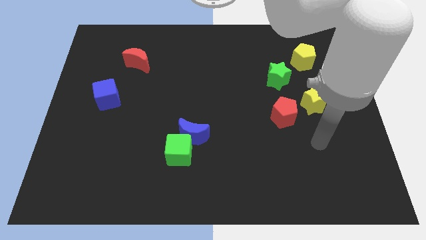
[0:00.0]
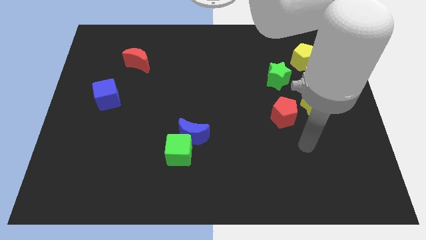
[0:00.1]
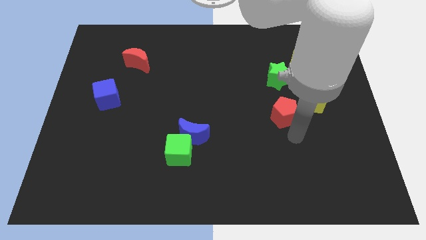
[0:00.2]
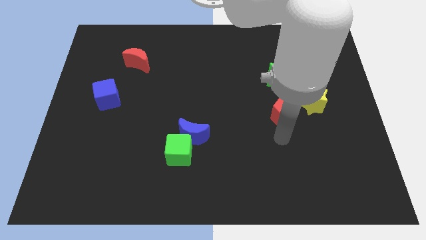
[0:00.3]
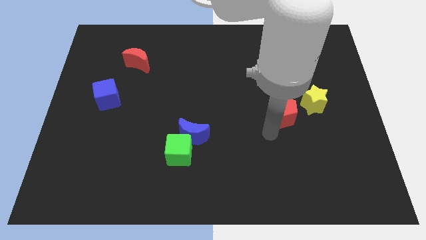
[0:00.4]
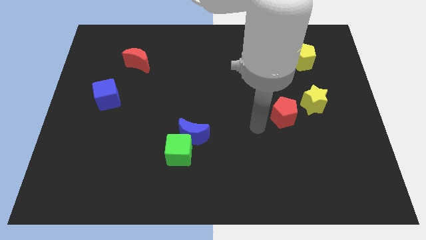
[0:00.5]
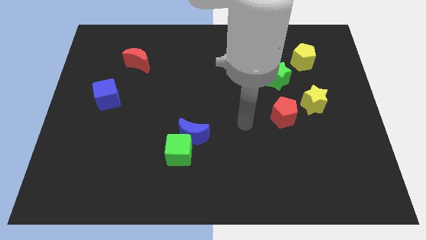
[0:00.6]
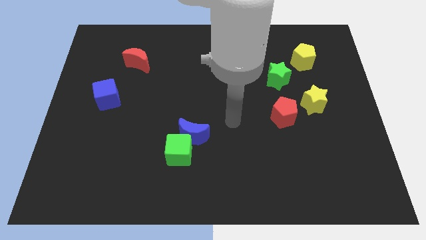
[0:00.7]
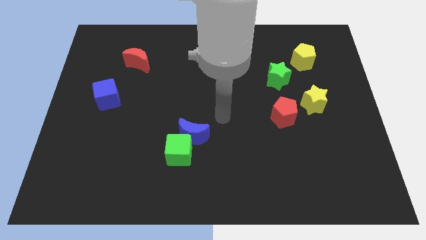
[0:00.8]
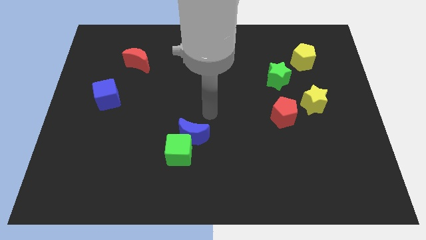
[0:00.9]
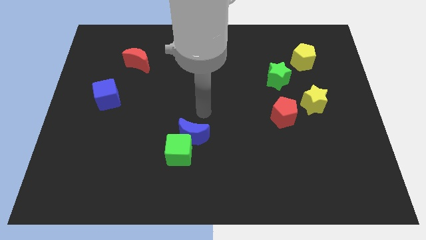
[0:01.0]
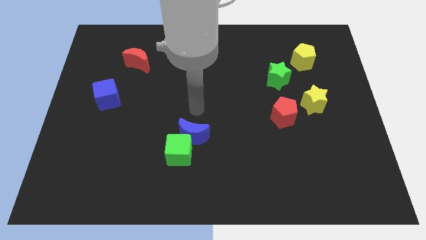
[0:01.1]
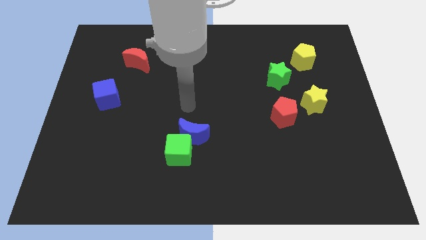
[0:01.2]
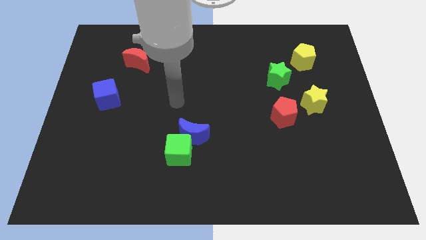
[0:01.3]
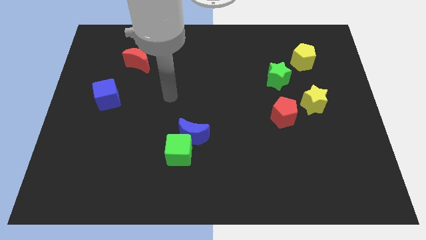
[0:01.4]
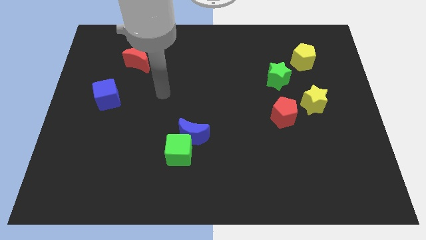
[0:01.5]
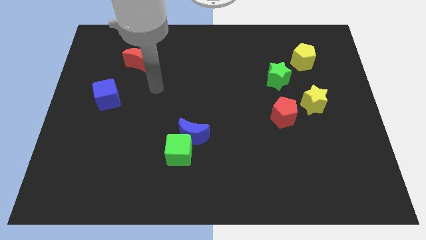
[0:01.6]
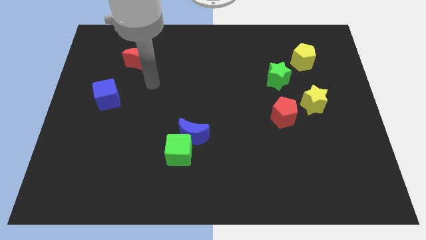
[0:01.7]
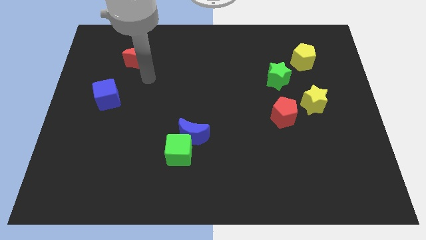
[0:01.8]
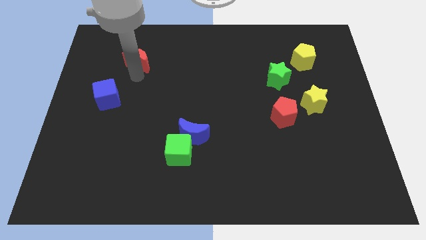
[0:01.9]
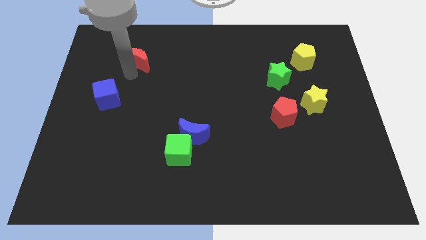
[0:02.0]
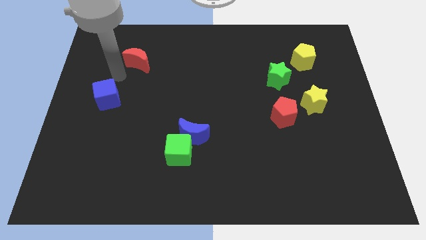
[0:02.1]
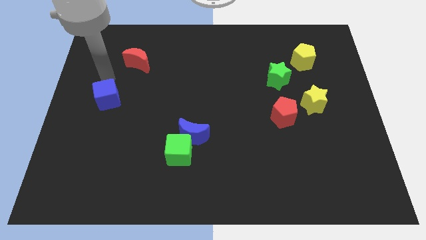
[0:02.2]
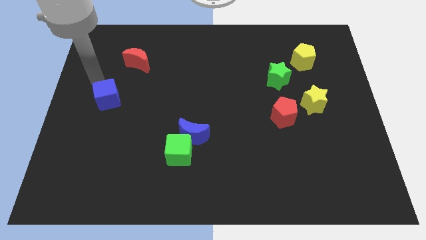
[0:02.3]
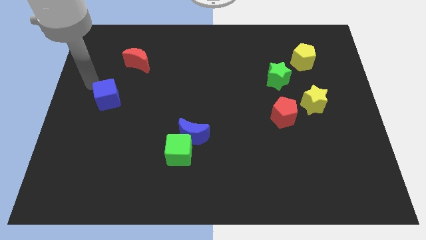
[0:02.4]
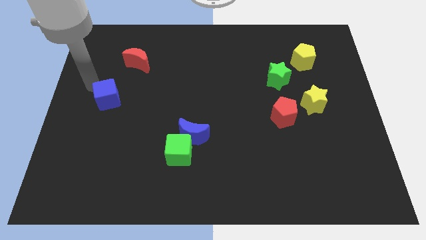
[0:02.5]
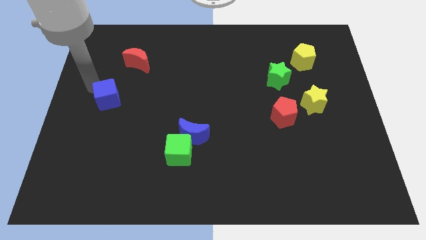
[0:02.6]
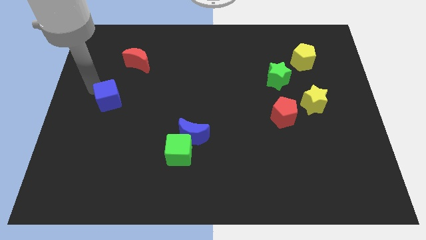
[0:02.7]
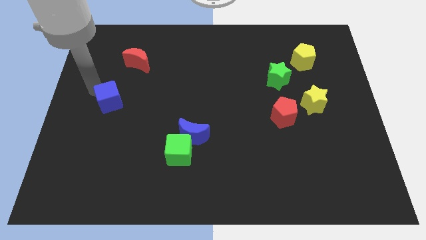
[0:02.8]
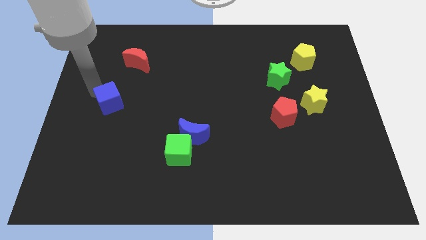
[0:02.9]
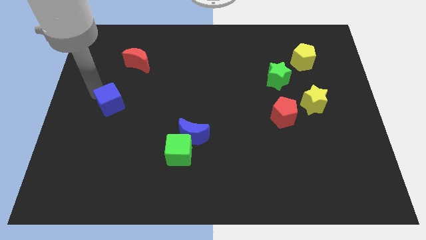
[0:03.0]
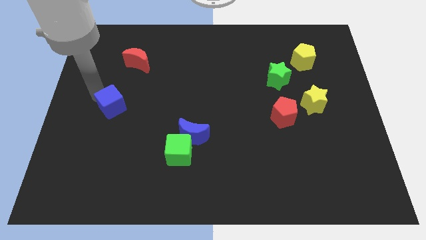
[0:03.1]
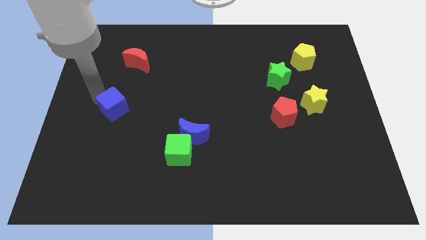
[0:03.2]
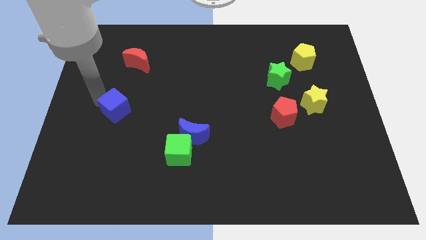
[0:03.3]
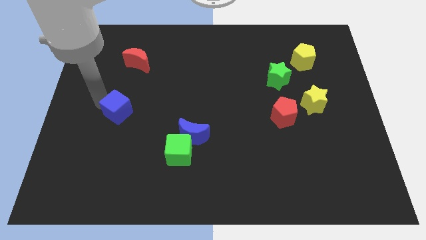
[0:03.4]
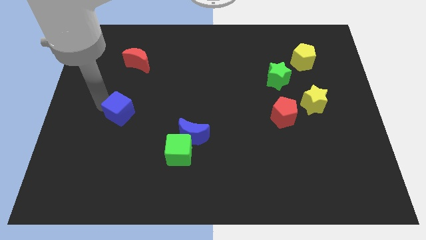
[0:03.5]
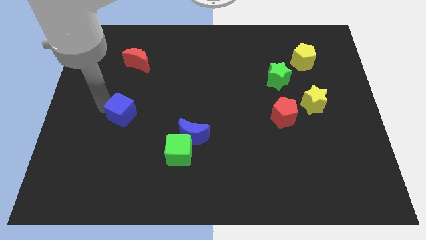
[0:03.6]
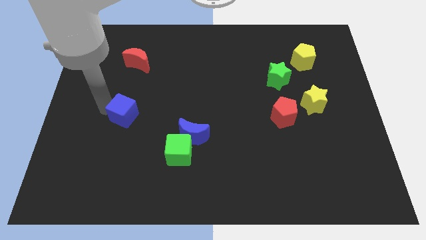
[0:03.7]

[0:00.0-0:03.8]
push the blue cube down and then to the right a little

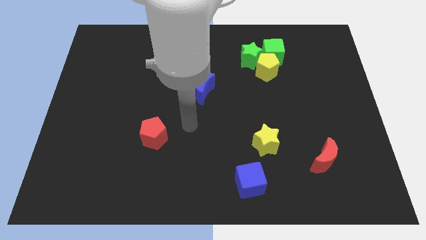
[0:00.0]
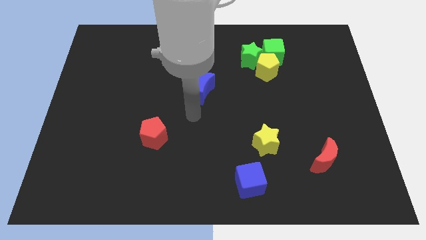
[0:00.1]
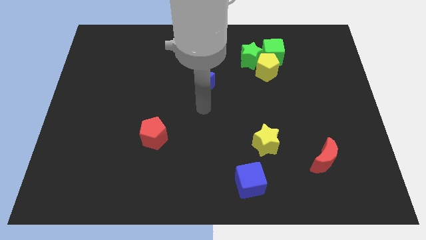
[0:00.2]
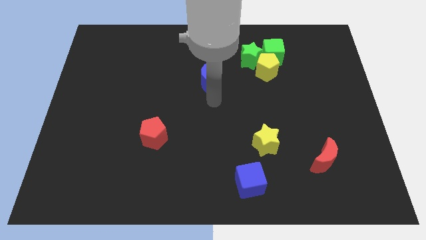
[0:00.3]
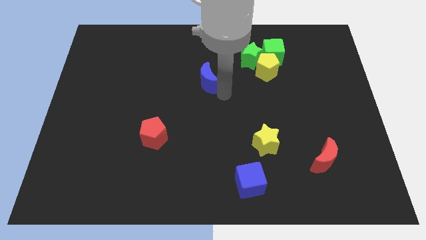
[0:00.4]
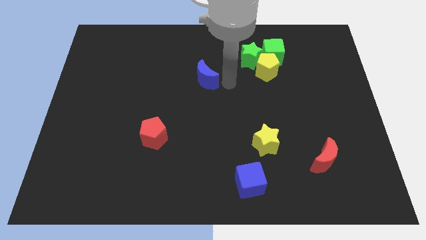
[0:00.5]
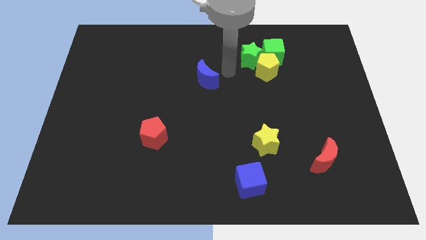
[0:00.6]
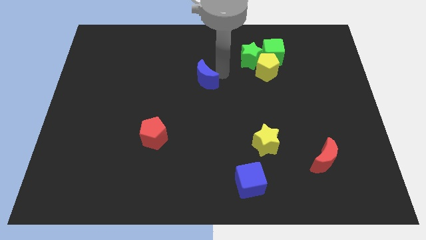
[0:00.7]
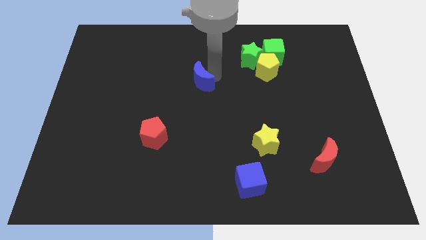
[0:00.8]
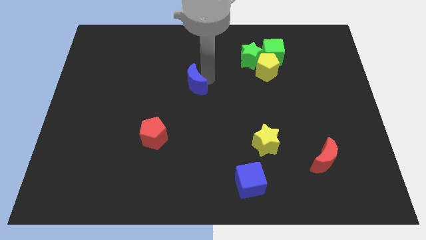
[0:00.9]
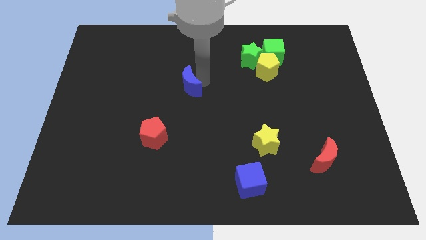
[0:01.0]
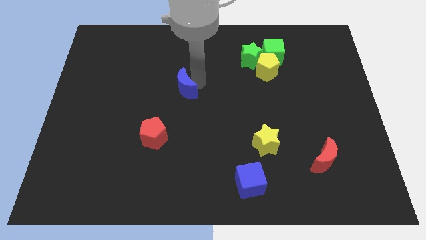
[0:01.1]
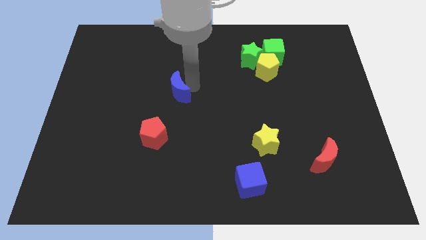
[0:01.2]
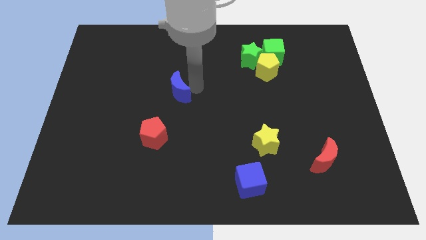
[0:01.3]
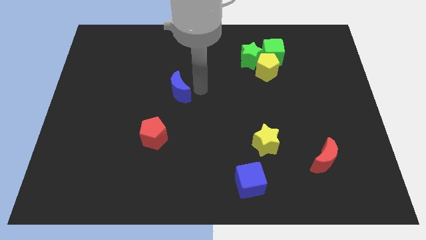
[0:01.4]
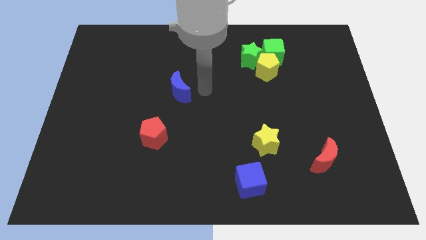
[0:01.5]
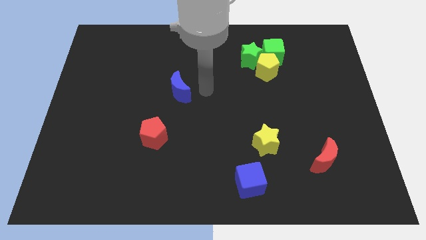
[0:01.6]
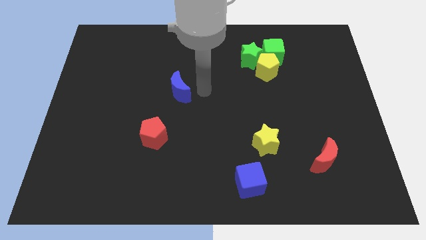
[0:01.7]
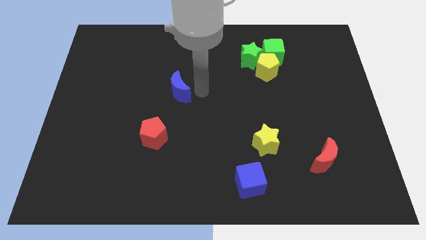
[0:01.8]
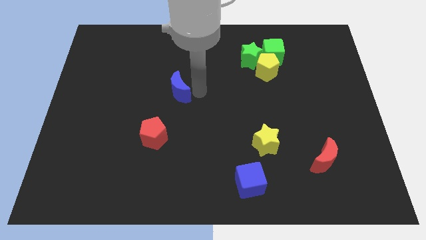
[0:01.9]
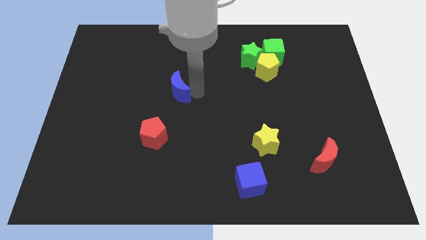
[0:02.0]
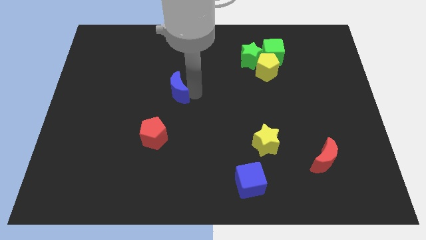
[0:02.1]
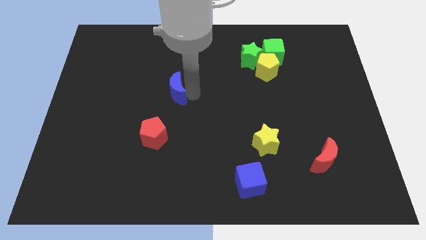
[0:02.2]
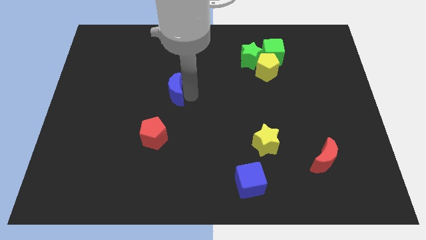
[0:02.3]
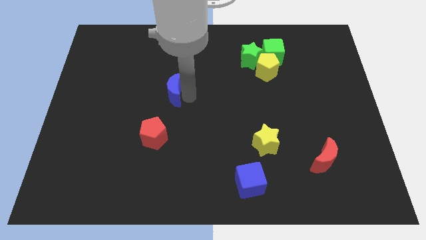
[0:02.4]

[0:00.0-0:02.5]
slightly push the blue moon left

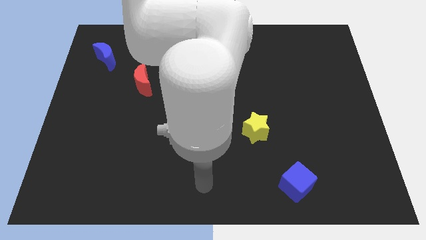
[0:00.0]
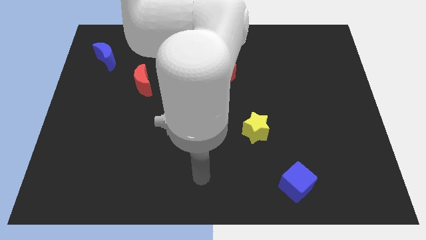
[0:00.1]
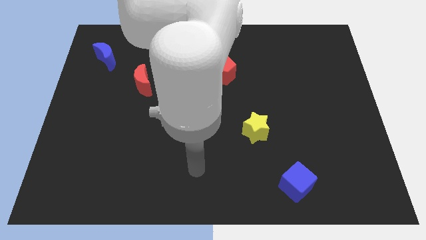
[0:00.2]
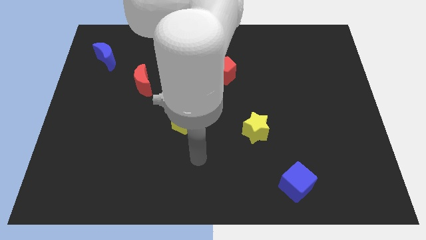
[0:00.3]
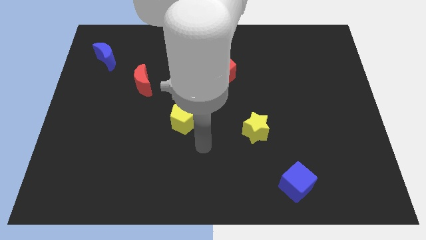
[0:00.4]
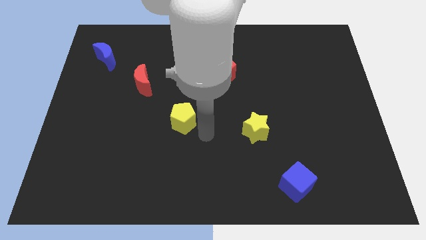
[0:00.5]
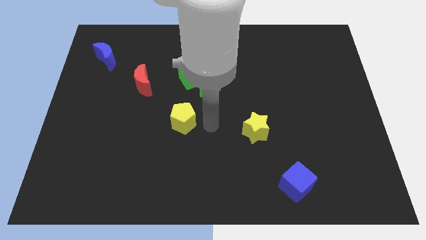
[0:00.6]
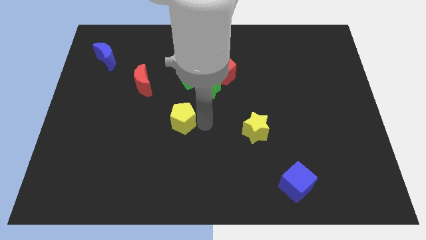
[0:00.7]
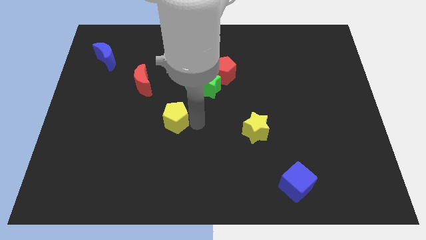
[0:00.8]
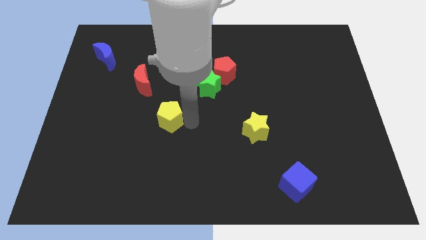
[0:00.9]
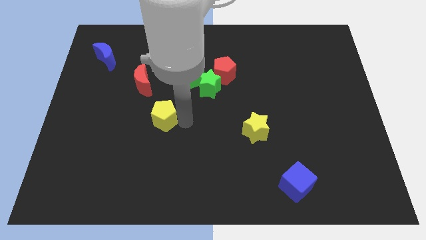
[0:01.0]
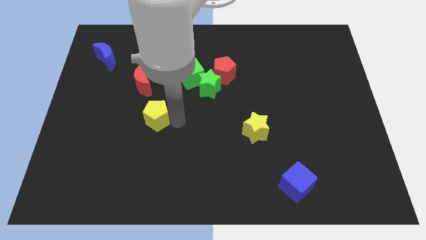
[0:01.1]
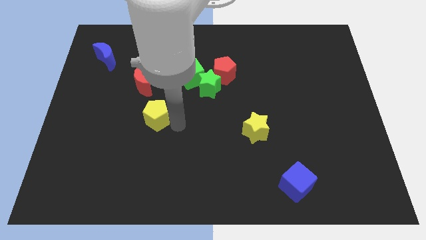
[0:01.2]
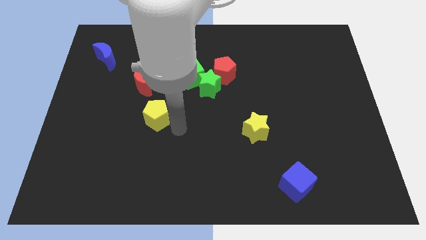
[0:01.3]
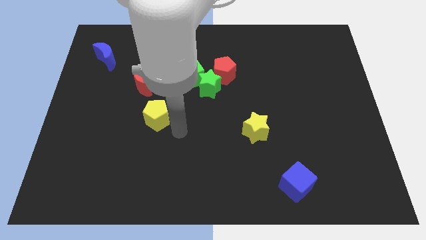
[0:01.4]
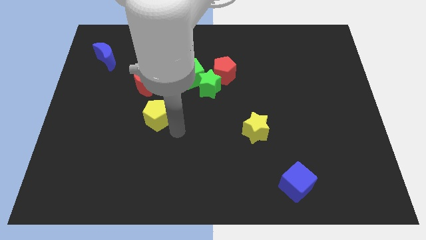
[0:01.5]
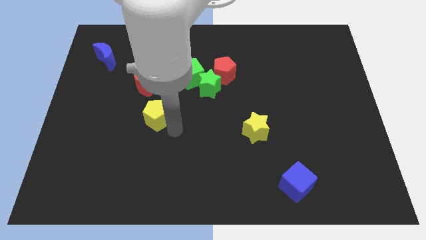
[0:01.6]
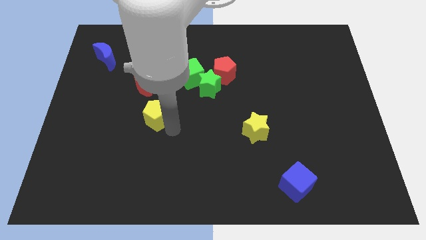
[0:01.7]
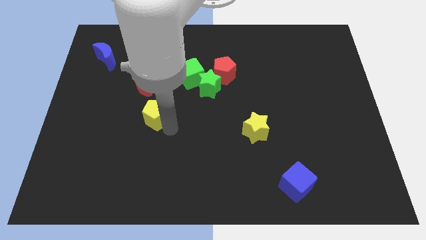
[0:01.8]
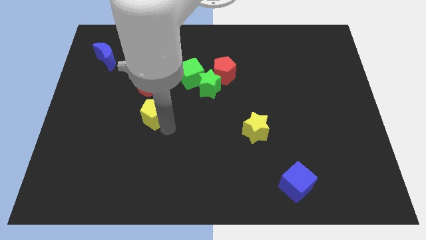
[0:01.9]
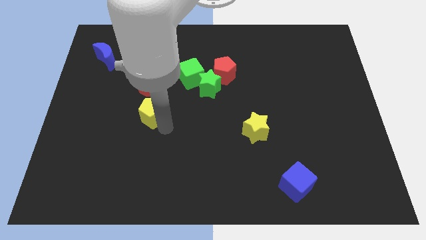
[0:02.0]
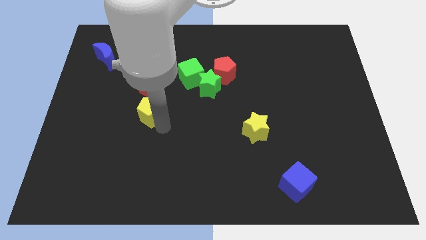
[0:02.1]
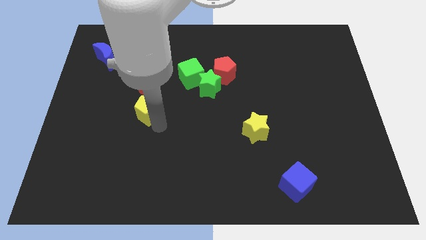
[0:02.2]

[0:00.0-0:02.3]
move the yellow pentagon up and to the left diagonally a bit
